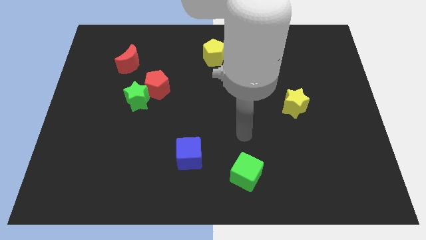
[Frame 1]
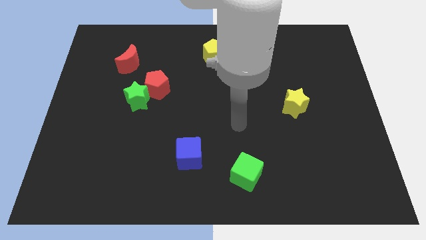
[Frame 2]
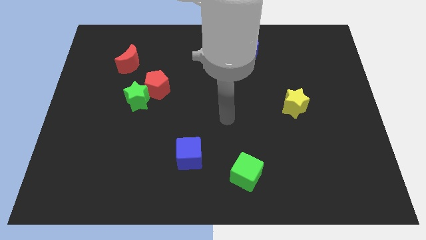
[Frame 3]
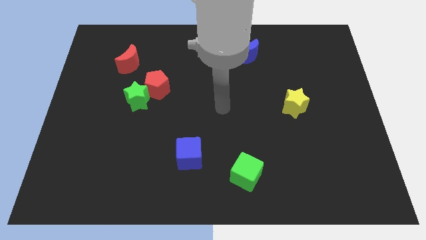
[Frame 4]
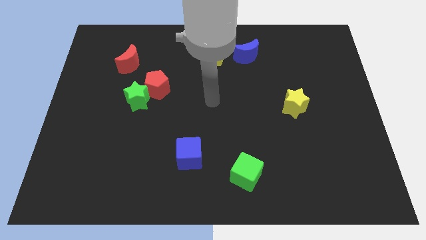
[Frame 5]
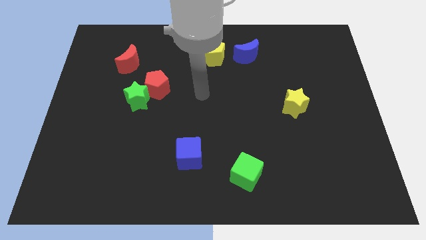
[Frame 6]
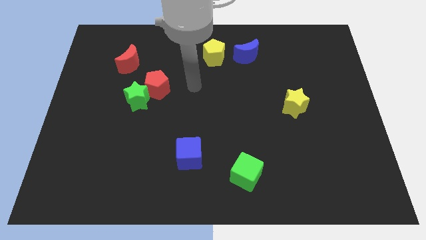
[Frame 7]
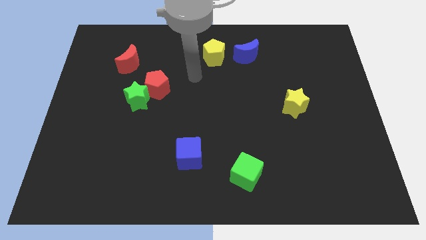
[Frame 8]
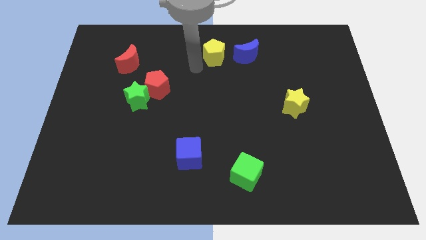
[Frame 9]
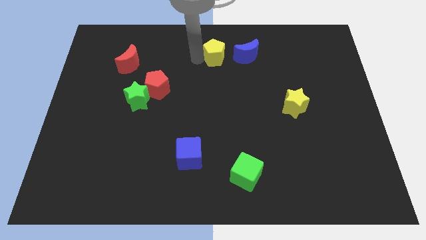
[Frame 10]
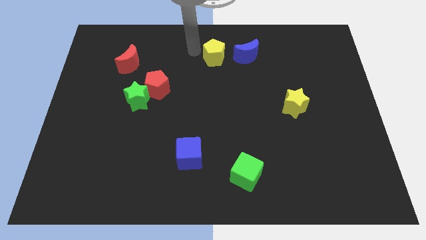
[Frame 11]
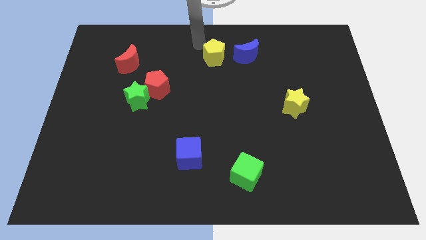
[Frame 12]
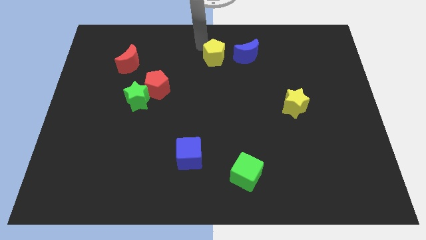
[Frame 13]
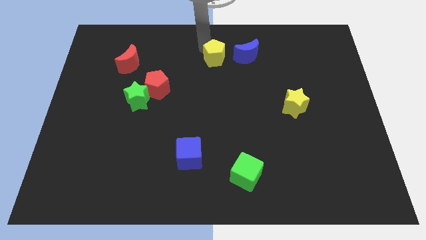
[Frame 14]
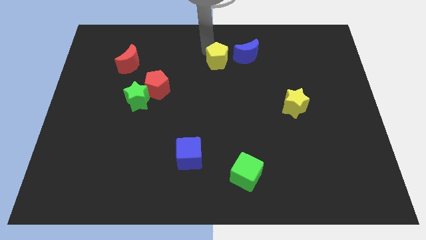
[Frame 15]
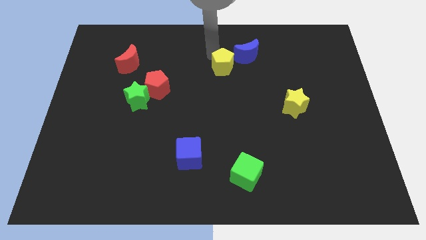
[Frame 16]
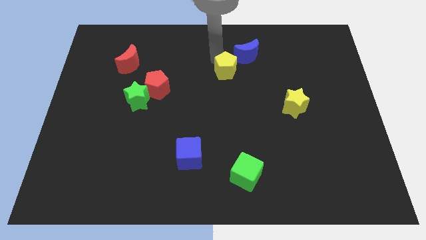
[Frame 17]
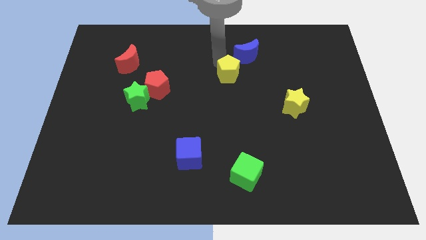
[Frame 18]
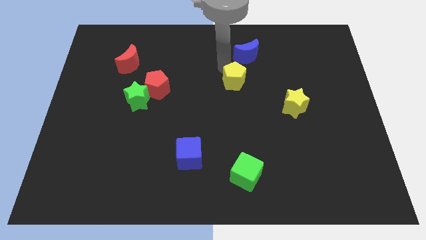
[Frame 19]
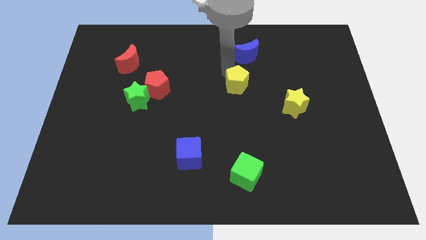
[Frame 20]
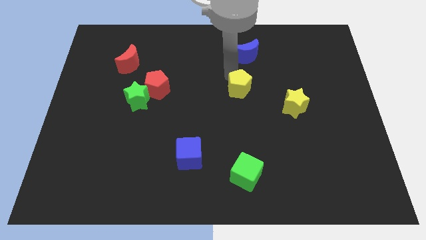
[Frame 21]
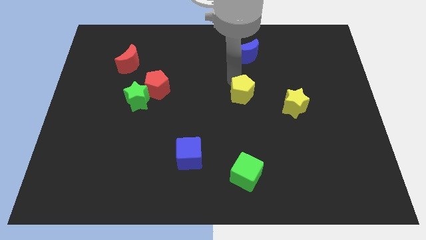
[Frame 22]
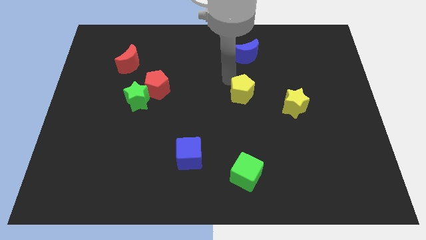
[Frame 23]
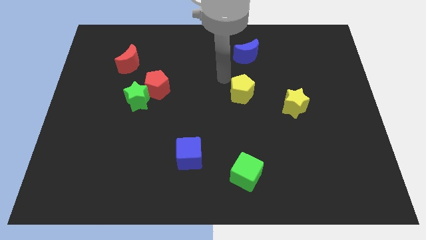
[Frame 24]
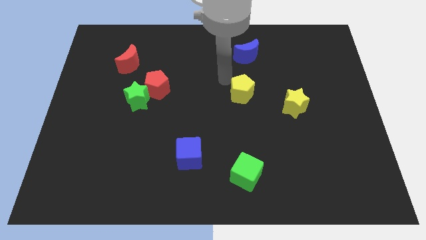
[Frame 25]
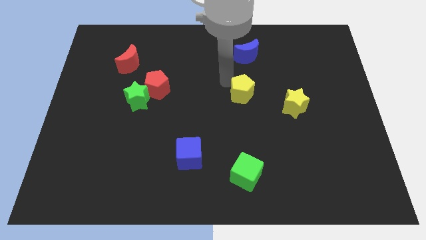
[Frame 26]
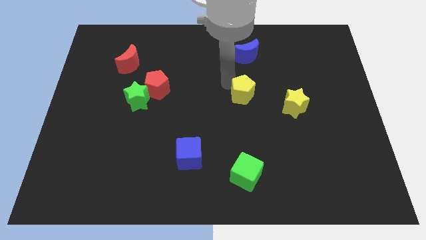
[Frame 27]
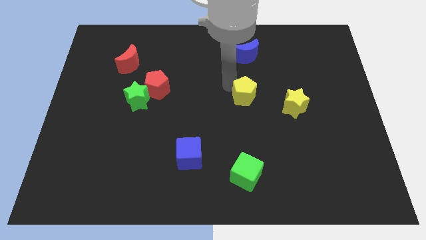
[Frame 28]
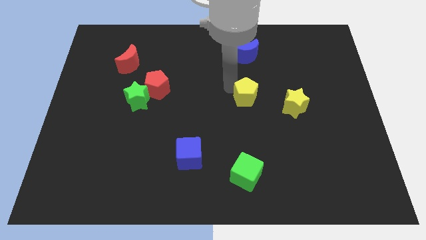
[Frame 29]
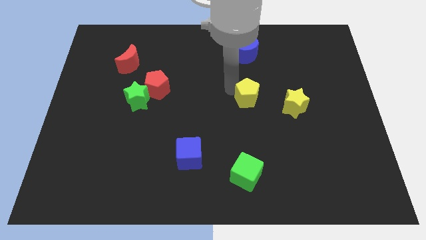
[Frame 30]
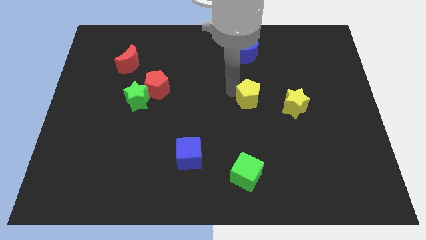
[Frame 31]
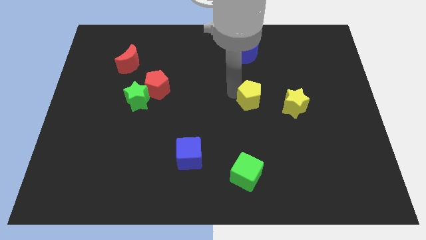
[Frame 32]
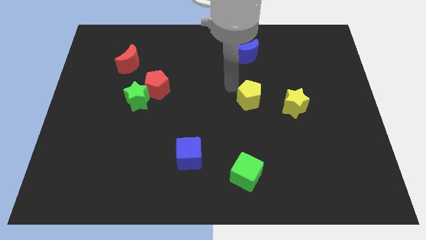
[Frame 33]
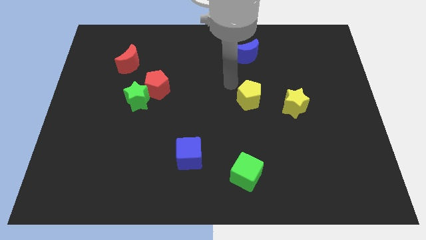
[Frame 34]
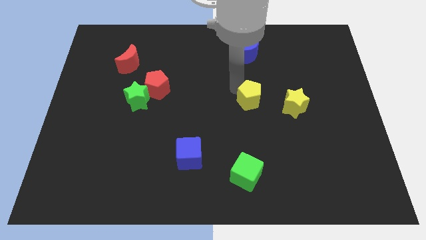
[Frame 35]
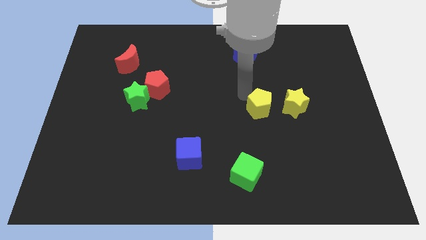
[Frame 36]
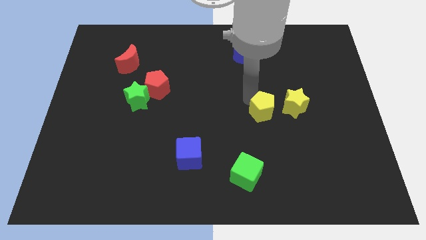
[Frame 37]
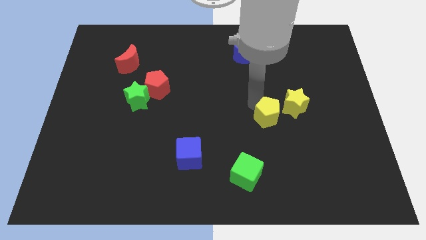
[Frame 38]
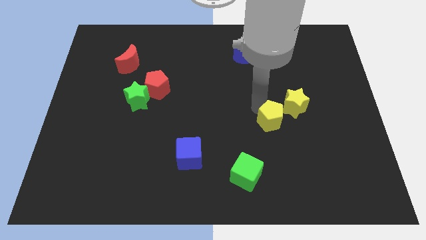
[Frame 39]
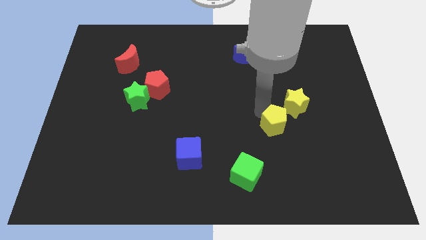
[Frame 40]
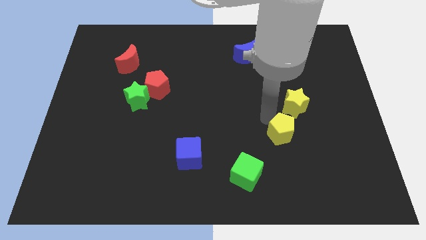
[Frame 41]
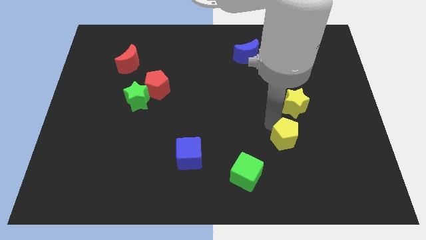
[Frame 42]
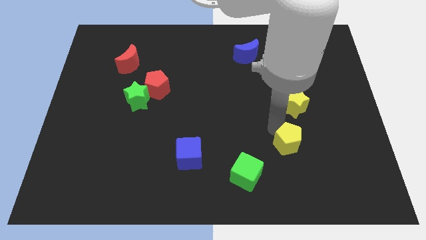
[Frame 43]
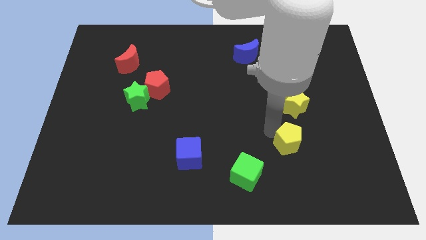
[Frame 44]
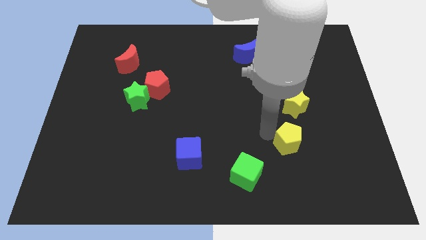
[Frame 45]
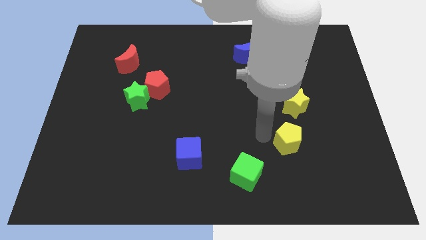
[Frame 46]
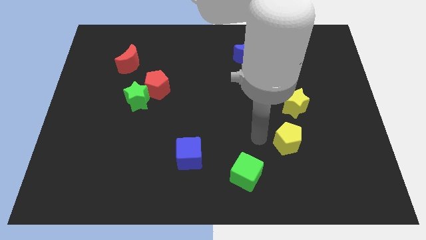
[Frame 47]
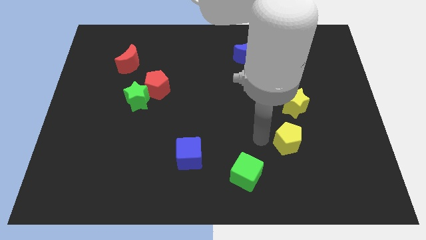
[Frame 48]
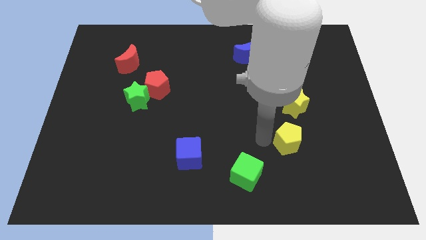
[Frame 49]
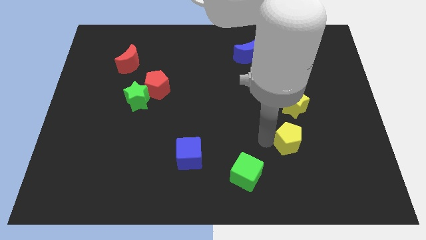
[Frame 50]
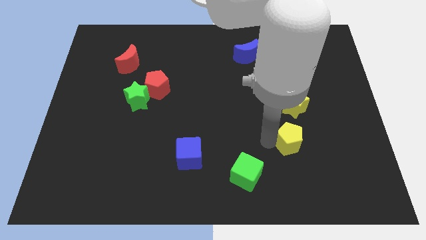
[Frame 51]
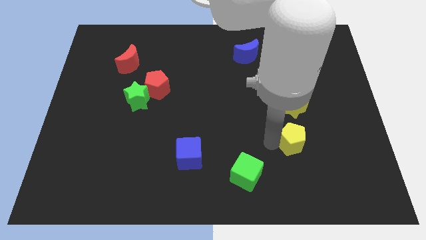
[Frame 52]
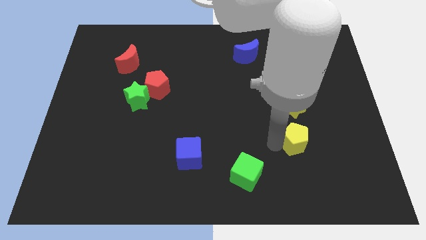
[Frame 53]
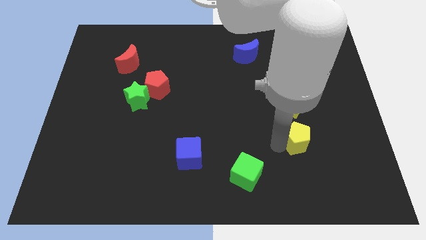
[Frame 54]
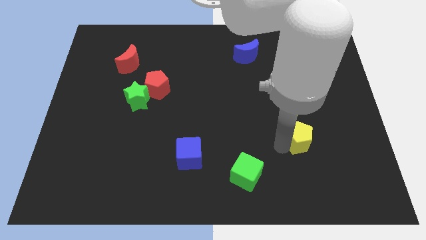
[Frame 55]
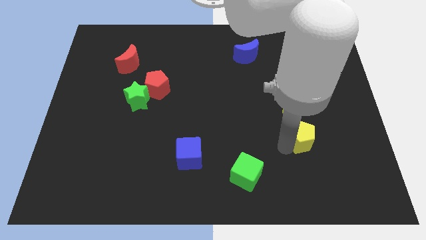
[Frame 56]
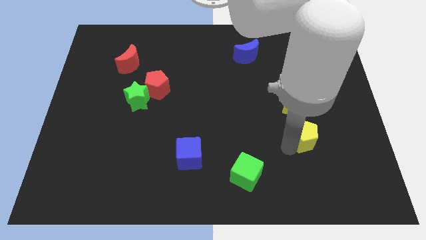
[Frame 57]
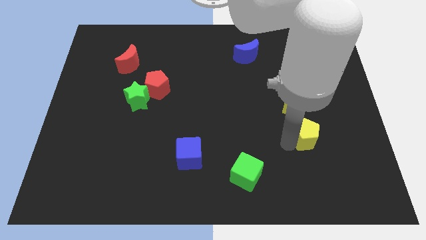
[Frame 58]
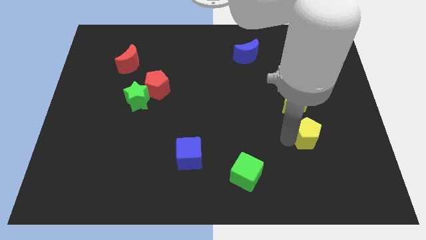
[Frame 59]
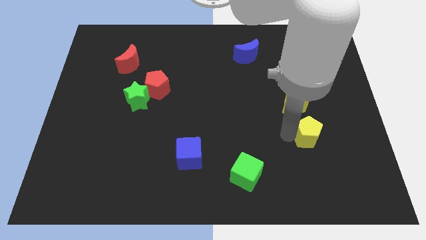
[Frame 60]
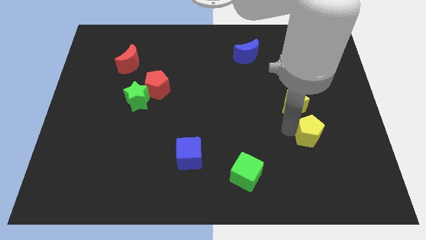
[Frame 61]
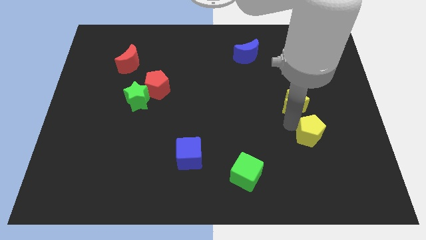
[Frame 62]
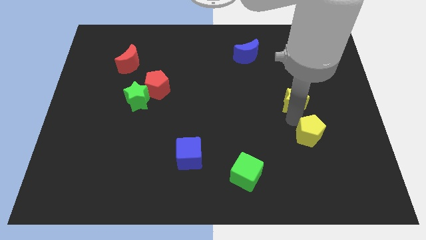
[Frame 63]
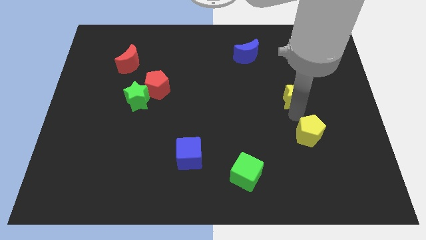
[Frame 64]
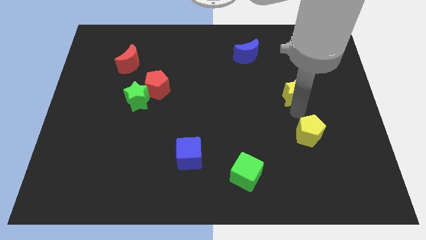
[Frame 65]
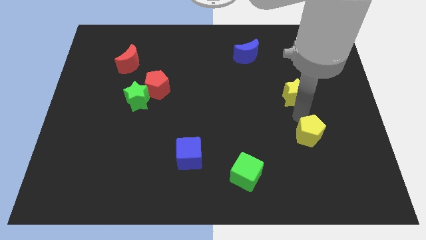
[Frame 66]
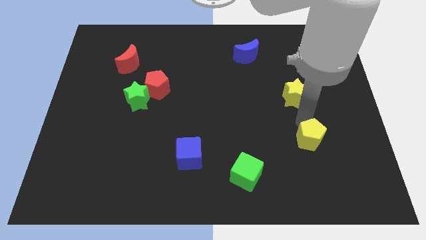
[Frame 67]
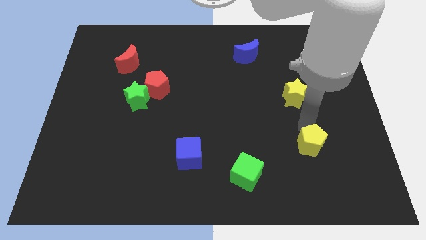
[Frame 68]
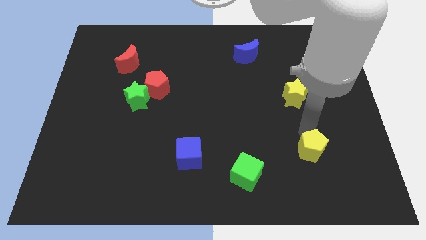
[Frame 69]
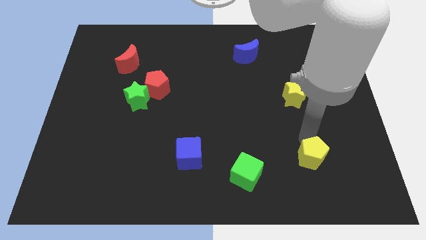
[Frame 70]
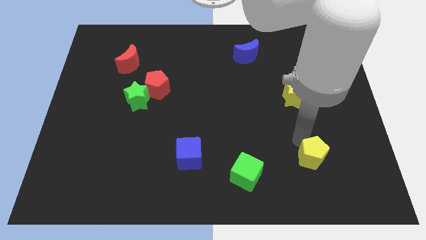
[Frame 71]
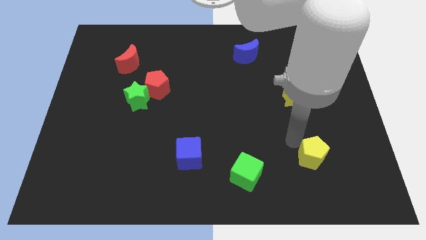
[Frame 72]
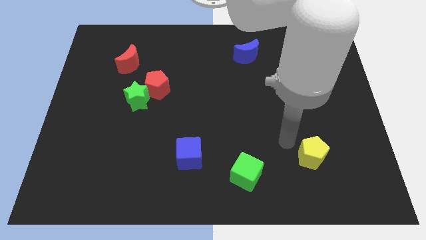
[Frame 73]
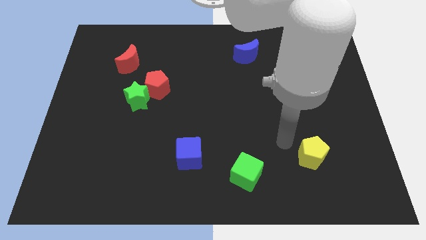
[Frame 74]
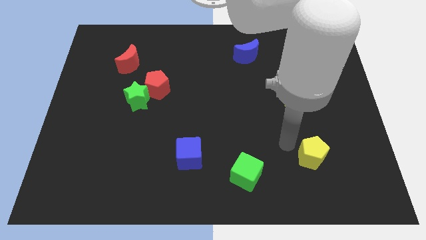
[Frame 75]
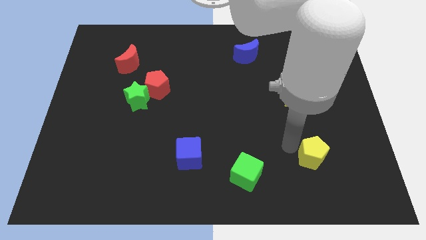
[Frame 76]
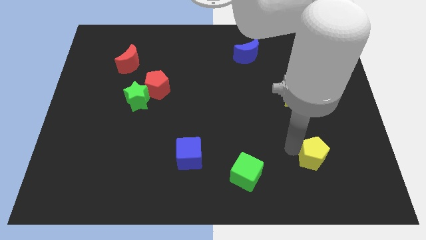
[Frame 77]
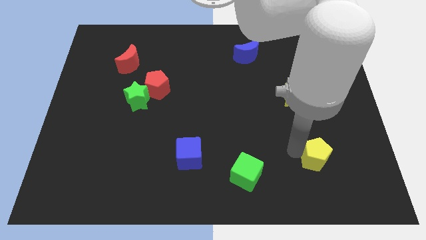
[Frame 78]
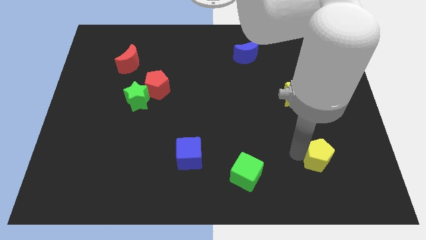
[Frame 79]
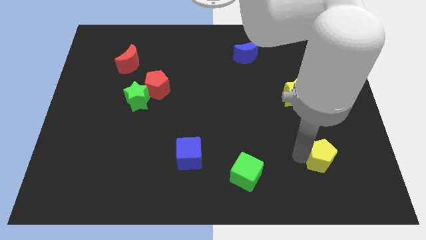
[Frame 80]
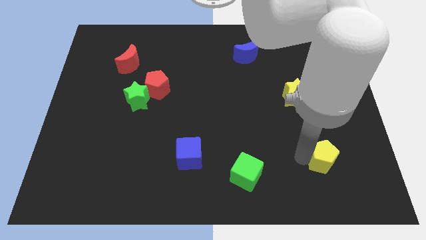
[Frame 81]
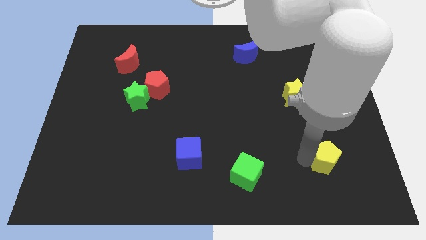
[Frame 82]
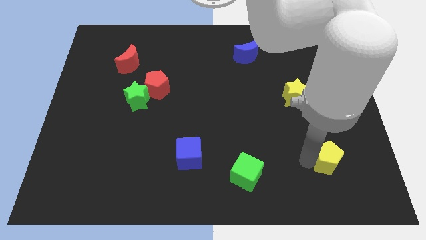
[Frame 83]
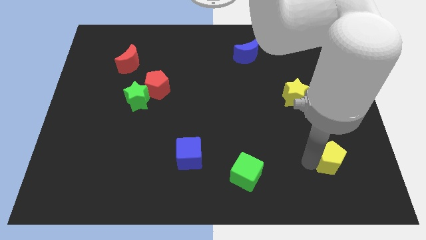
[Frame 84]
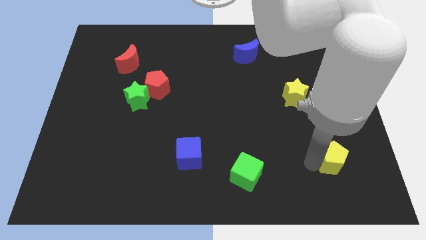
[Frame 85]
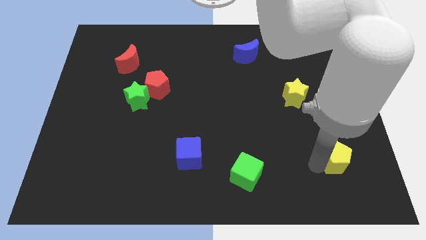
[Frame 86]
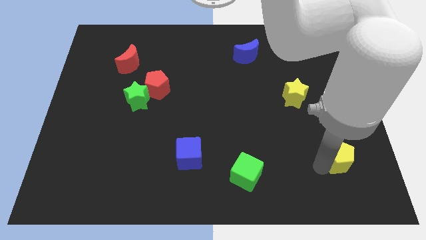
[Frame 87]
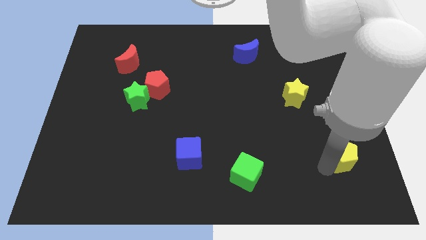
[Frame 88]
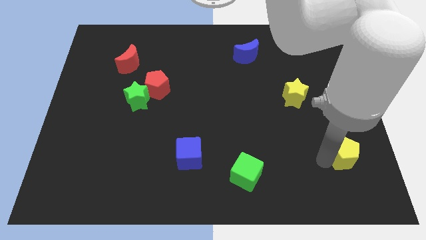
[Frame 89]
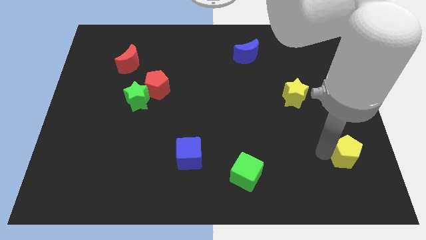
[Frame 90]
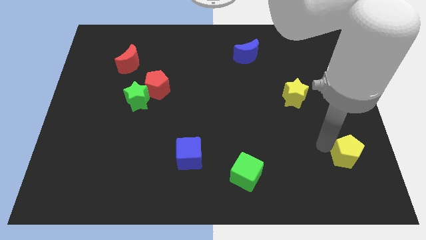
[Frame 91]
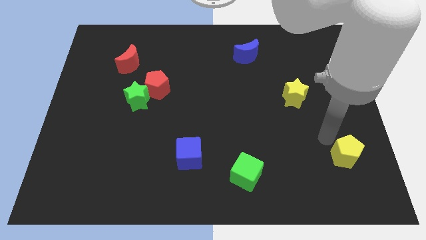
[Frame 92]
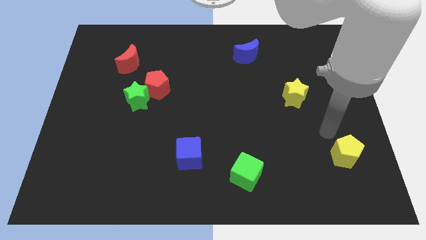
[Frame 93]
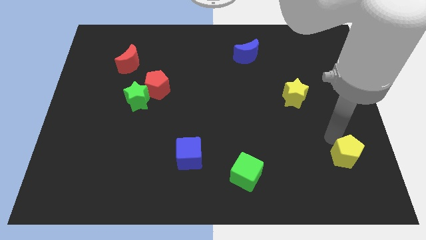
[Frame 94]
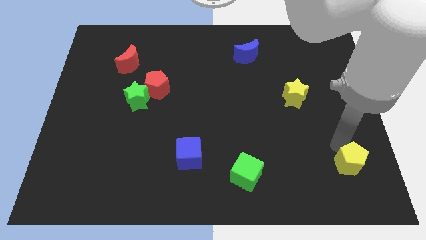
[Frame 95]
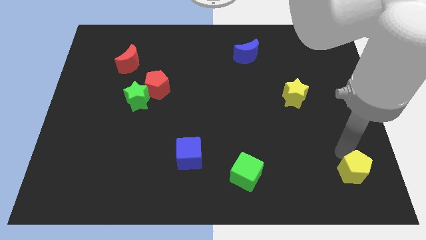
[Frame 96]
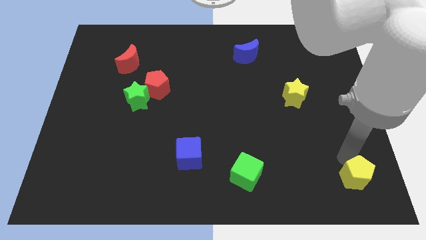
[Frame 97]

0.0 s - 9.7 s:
move the yellow pentagon to the lower right corner
